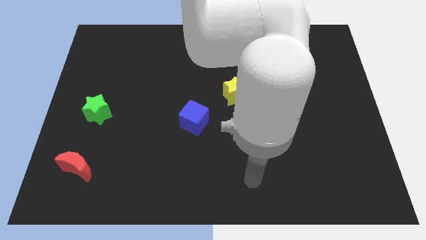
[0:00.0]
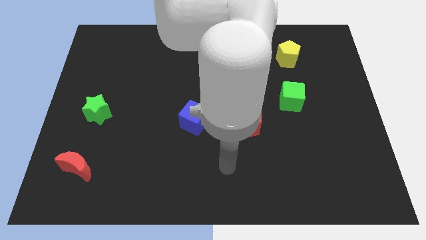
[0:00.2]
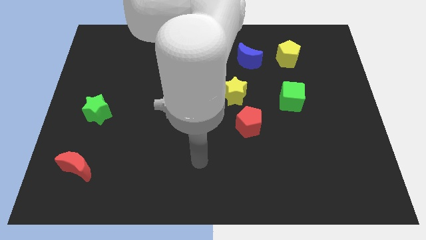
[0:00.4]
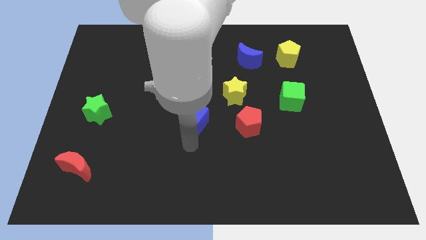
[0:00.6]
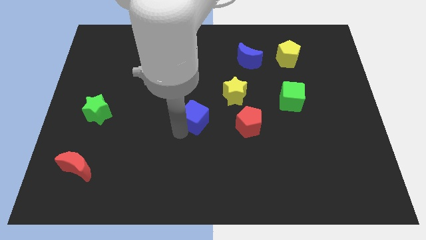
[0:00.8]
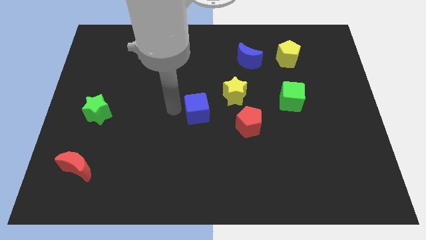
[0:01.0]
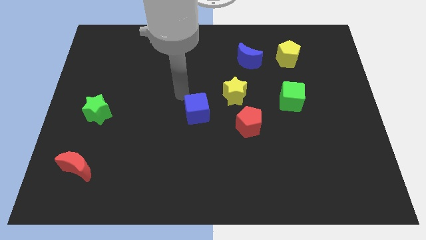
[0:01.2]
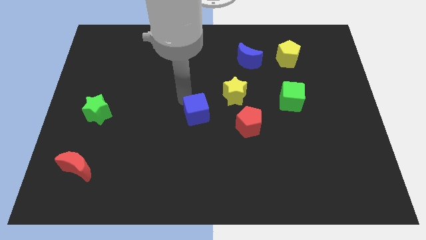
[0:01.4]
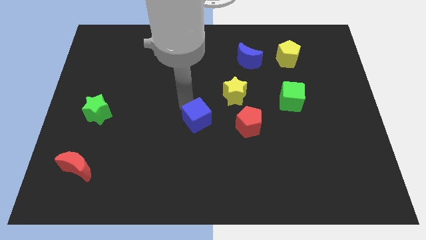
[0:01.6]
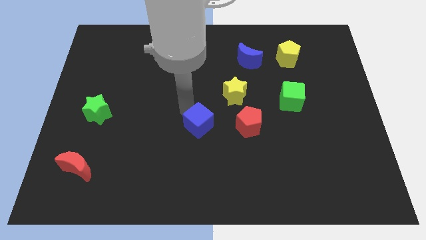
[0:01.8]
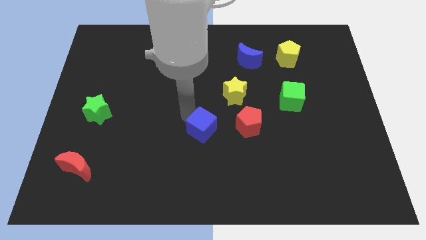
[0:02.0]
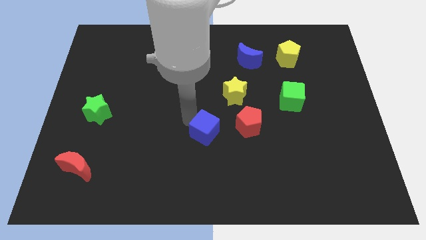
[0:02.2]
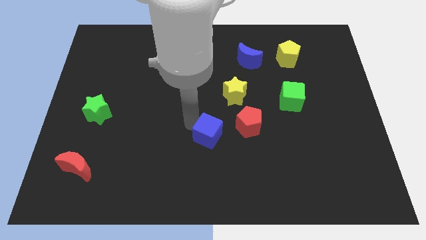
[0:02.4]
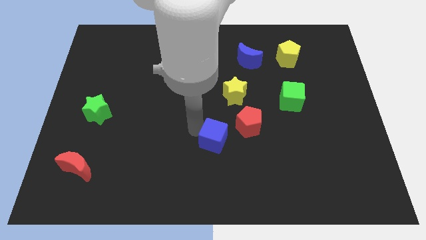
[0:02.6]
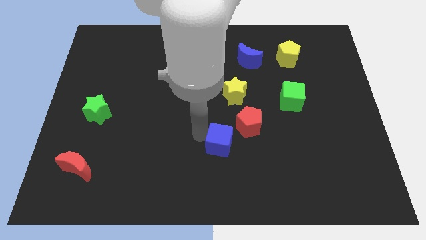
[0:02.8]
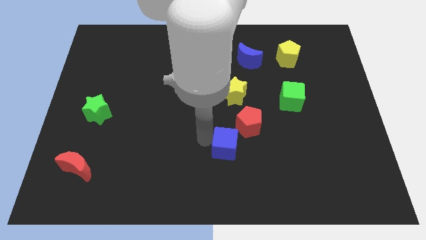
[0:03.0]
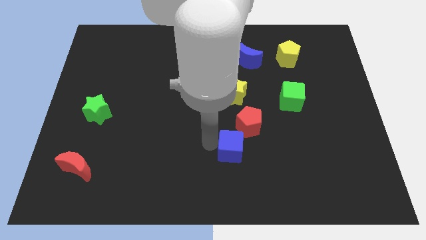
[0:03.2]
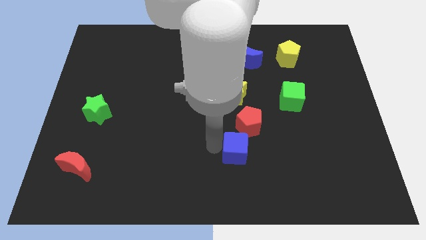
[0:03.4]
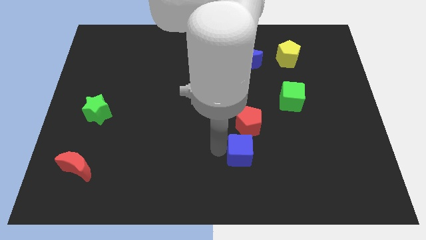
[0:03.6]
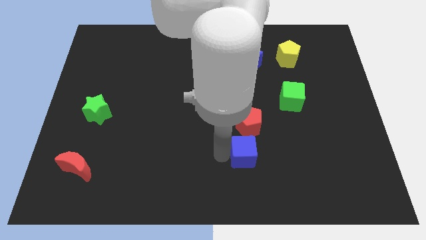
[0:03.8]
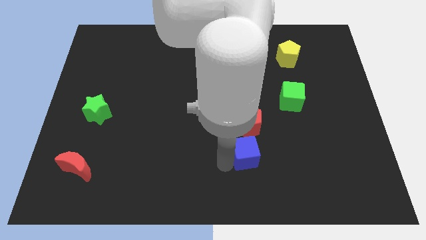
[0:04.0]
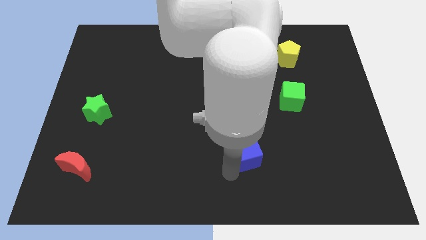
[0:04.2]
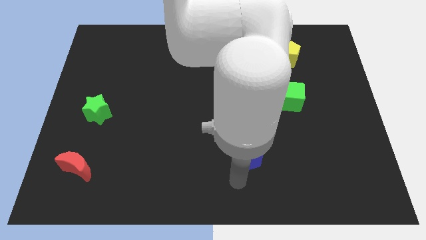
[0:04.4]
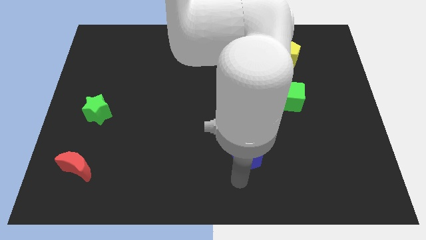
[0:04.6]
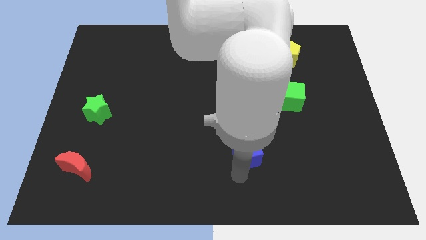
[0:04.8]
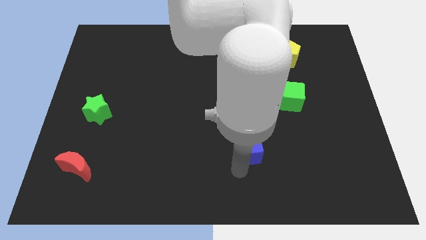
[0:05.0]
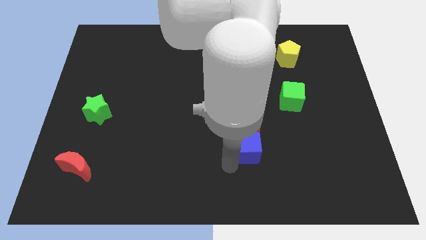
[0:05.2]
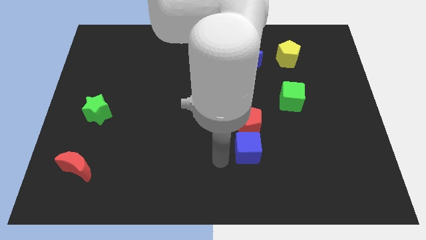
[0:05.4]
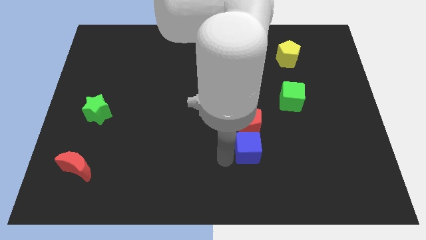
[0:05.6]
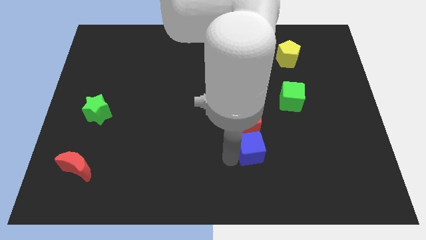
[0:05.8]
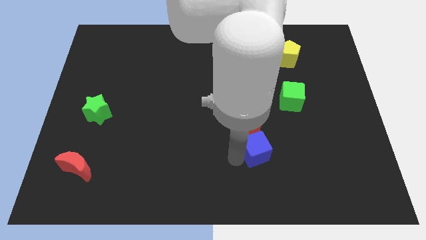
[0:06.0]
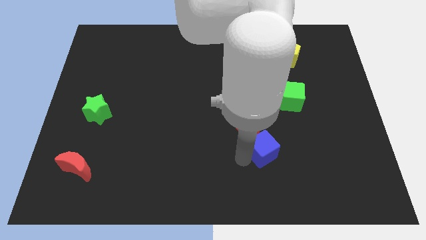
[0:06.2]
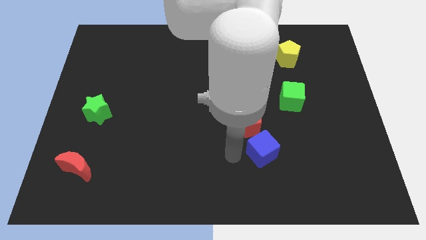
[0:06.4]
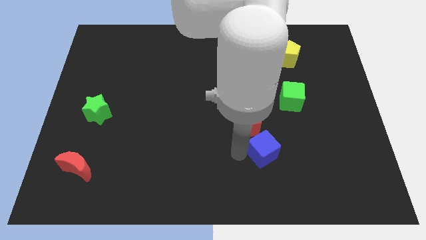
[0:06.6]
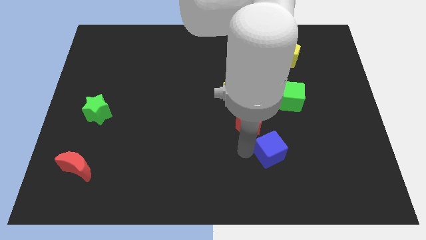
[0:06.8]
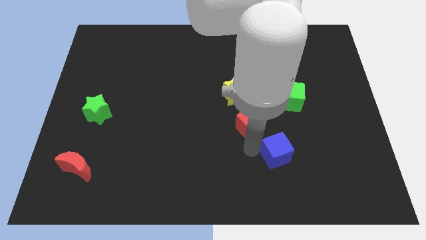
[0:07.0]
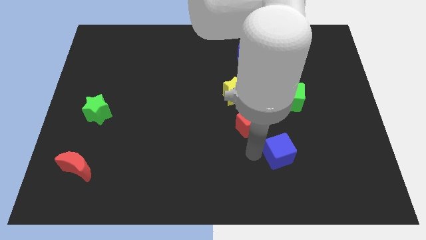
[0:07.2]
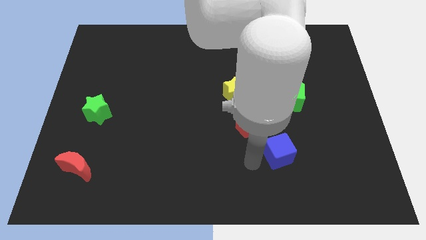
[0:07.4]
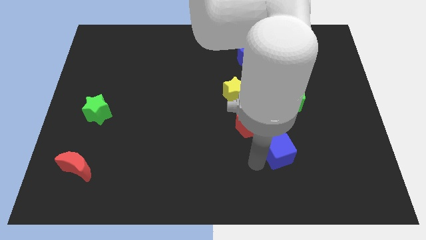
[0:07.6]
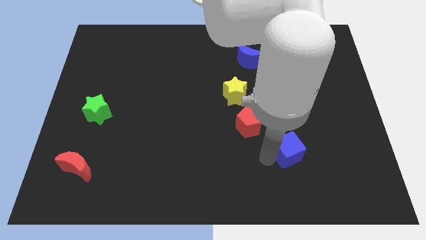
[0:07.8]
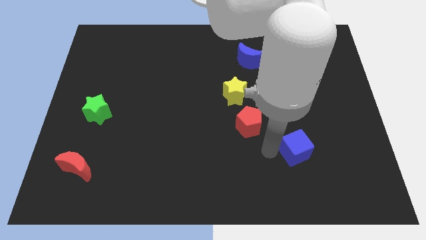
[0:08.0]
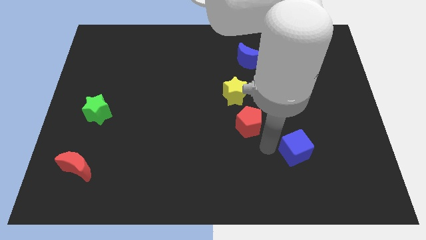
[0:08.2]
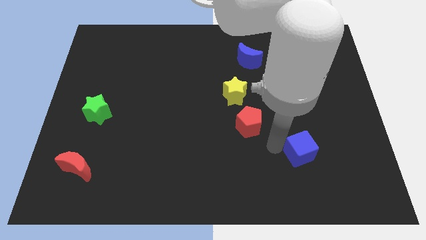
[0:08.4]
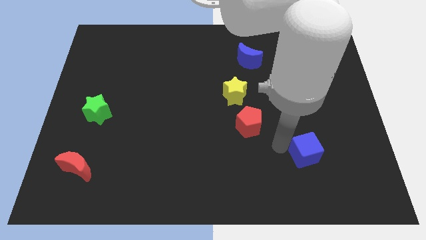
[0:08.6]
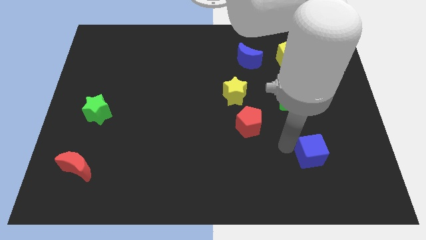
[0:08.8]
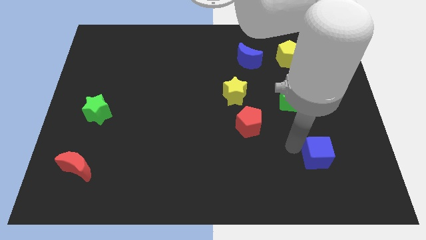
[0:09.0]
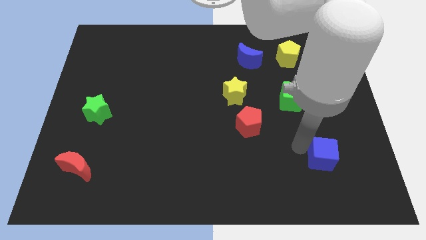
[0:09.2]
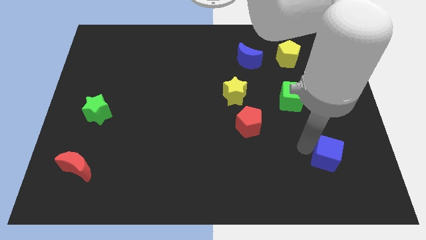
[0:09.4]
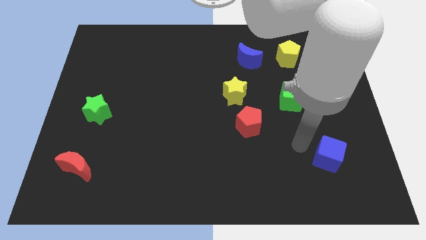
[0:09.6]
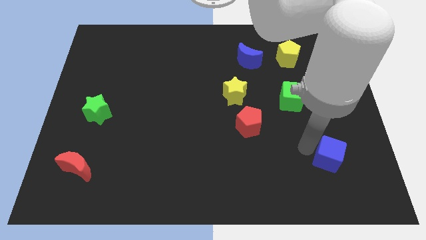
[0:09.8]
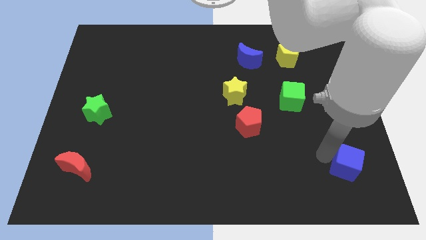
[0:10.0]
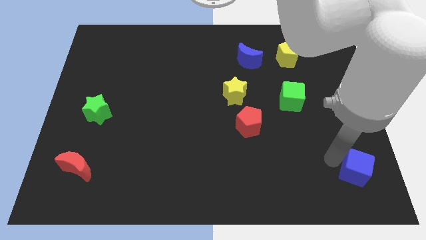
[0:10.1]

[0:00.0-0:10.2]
slide the blue cube to the bottom right corner

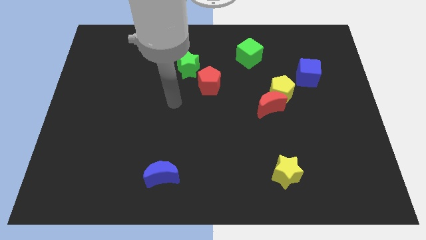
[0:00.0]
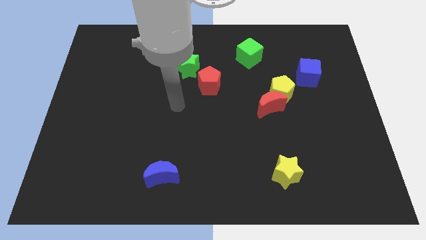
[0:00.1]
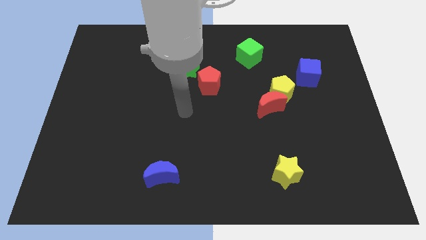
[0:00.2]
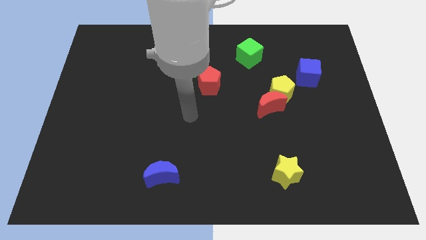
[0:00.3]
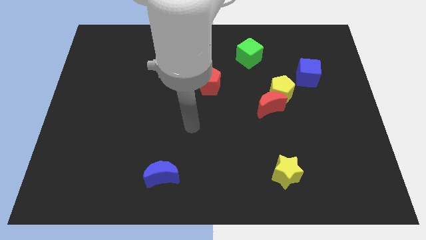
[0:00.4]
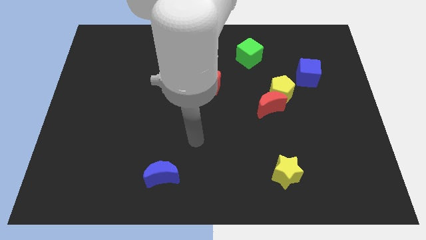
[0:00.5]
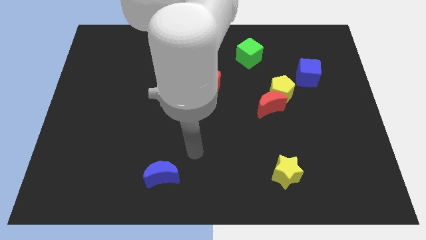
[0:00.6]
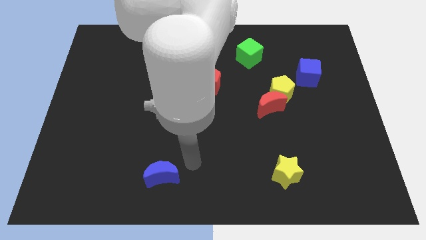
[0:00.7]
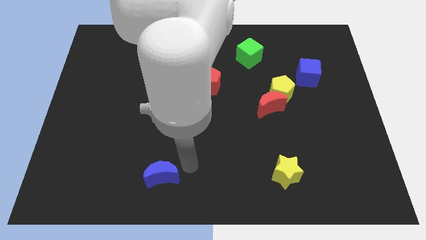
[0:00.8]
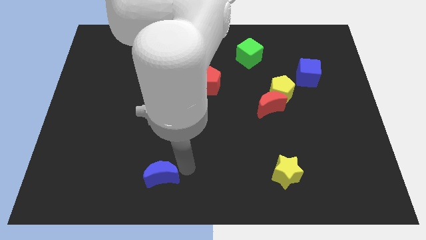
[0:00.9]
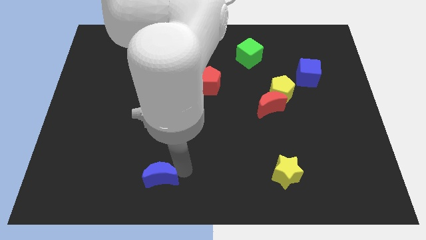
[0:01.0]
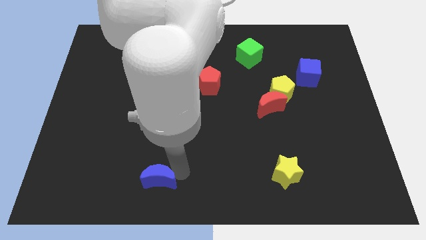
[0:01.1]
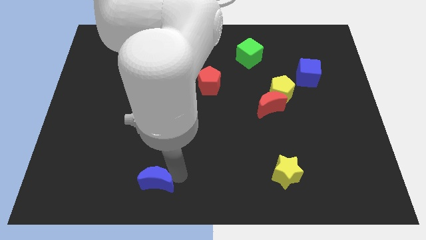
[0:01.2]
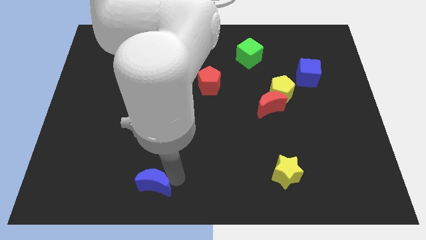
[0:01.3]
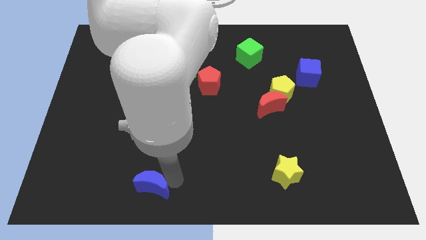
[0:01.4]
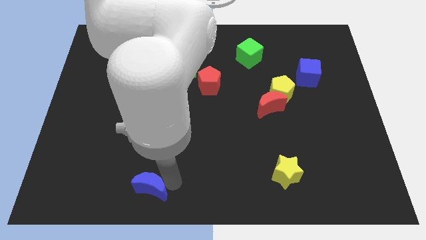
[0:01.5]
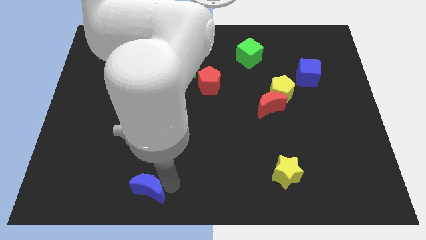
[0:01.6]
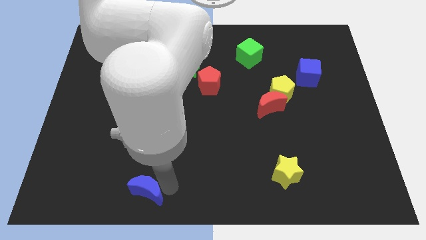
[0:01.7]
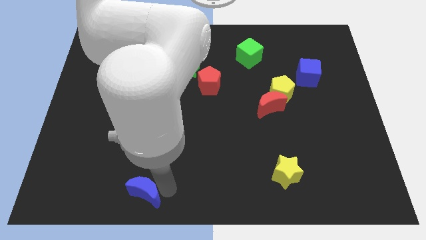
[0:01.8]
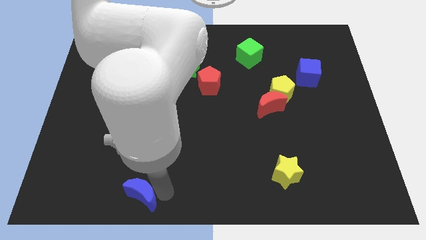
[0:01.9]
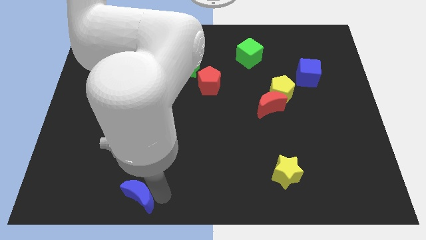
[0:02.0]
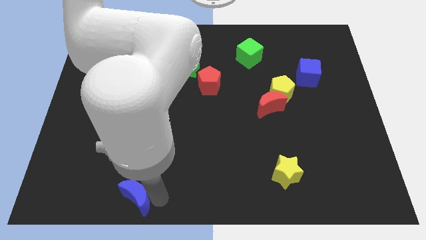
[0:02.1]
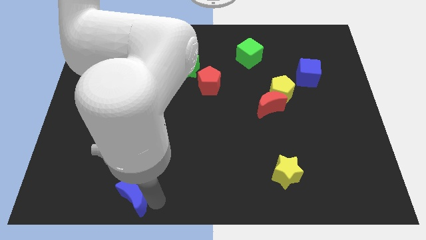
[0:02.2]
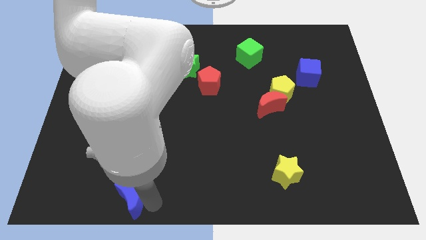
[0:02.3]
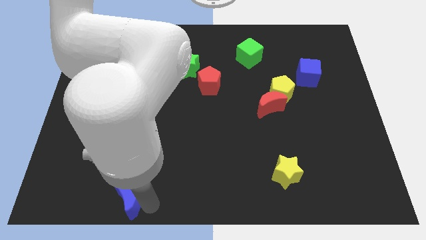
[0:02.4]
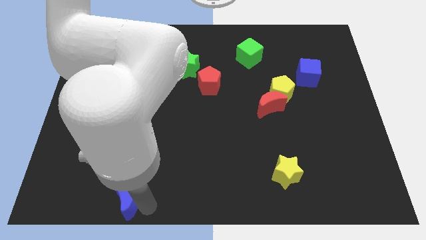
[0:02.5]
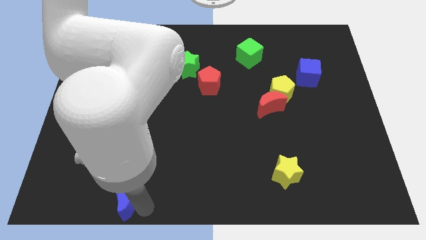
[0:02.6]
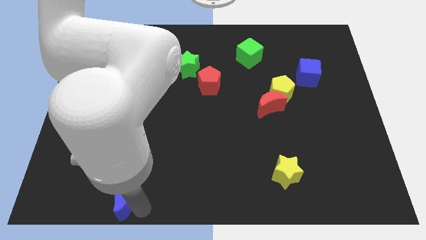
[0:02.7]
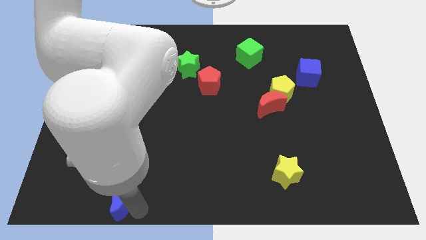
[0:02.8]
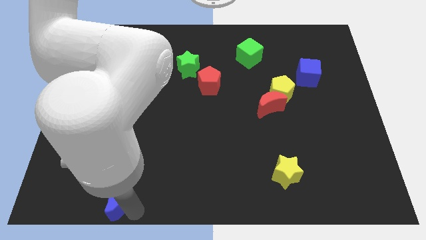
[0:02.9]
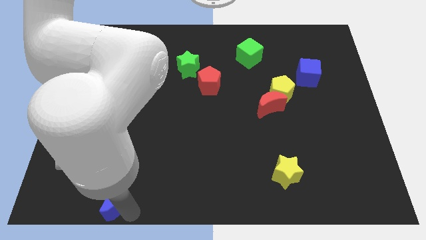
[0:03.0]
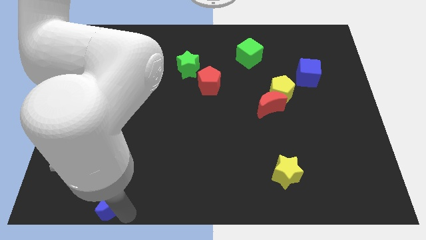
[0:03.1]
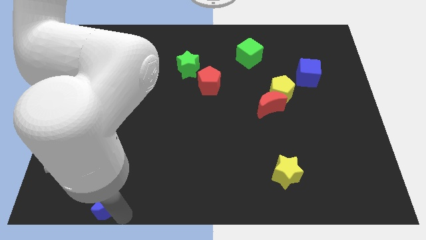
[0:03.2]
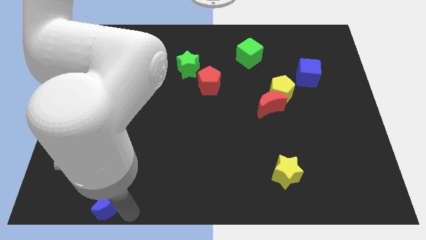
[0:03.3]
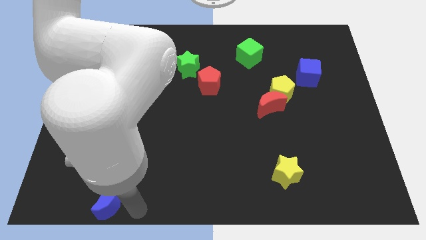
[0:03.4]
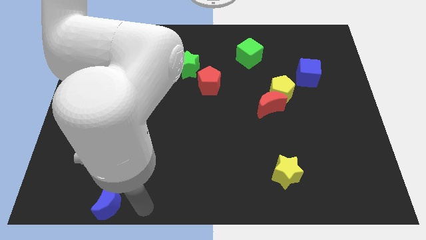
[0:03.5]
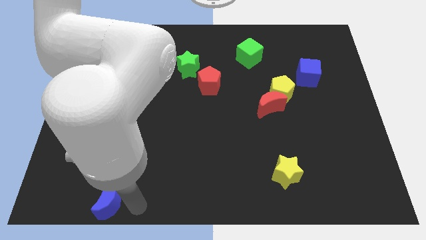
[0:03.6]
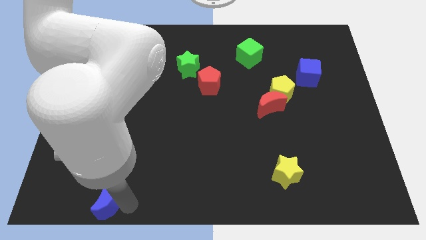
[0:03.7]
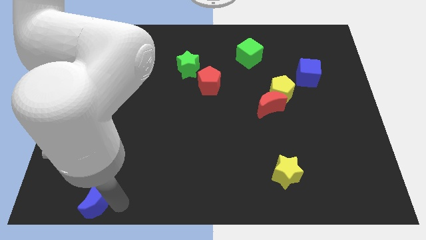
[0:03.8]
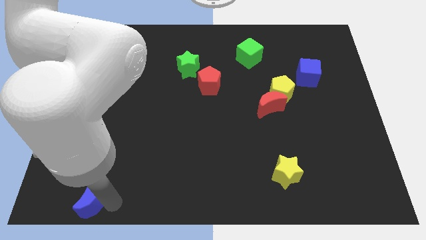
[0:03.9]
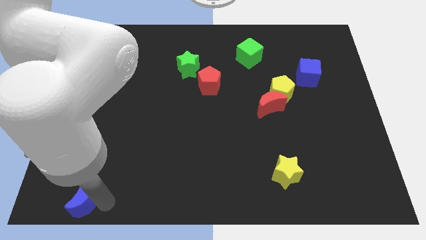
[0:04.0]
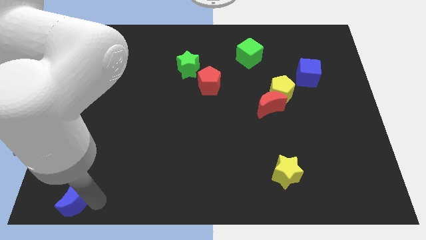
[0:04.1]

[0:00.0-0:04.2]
move the blue moon to the bottom left corner
